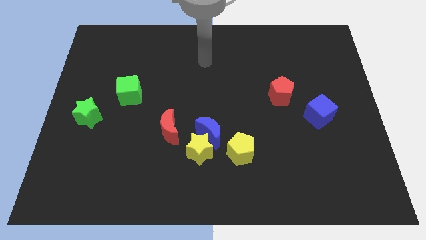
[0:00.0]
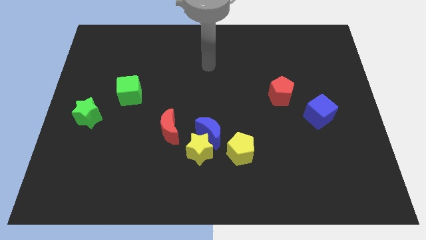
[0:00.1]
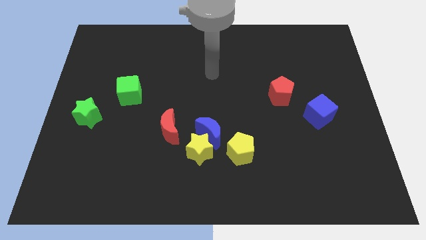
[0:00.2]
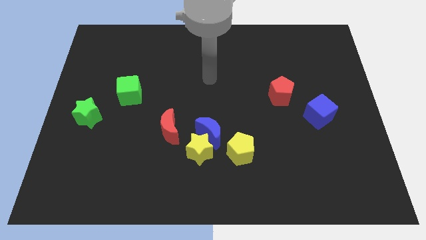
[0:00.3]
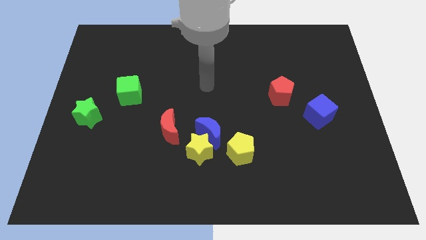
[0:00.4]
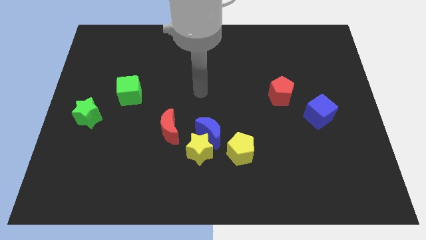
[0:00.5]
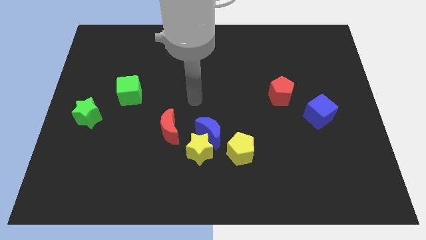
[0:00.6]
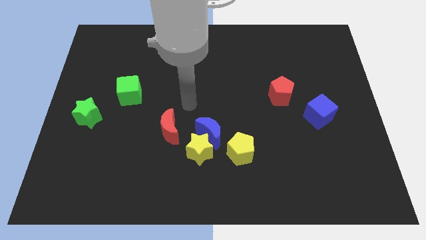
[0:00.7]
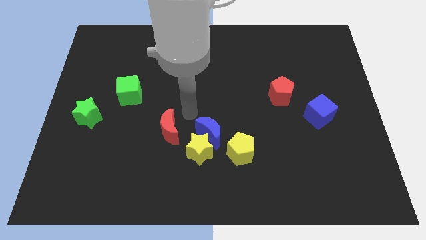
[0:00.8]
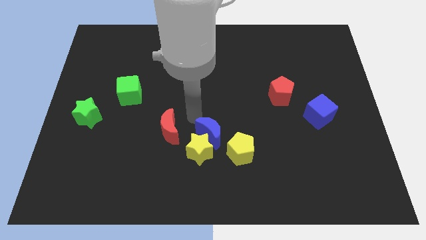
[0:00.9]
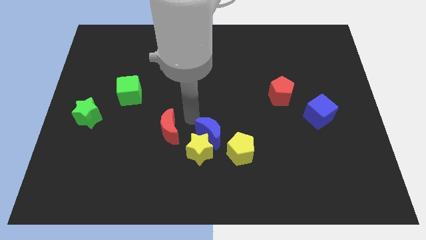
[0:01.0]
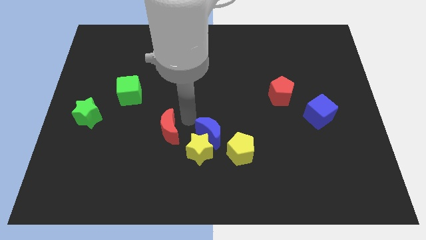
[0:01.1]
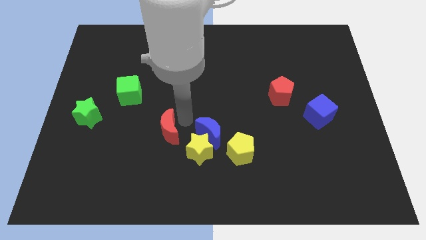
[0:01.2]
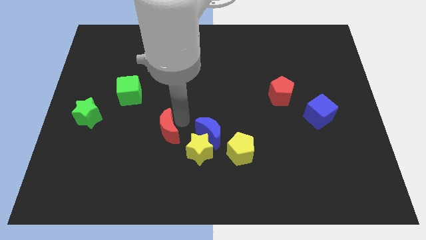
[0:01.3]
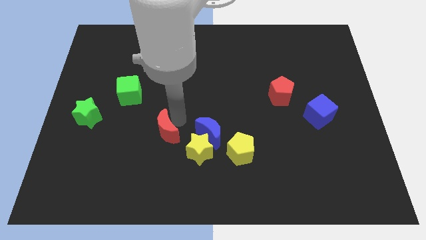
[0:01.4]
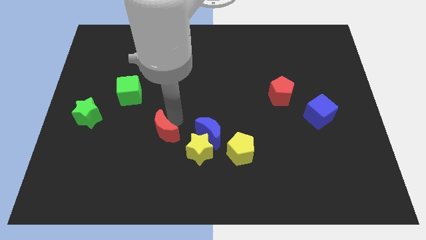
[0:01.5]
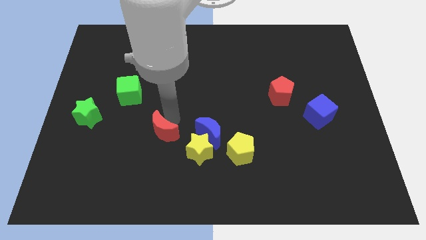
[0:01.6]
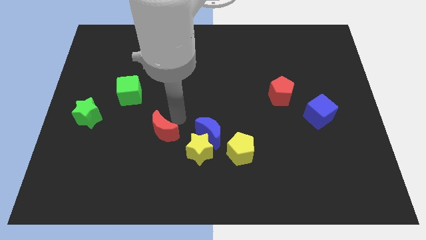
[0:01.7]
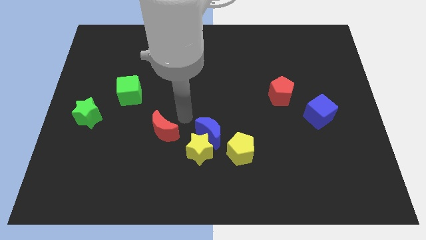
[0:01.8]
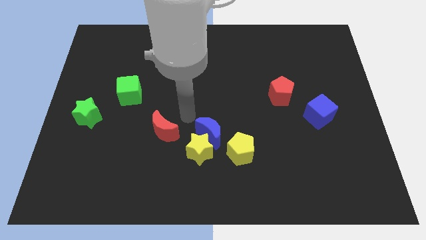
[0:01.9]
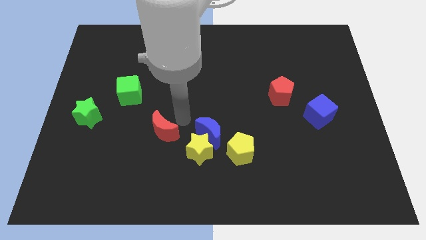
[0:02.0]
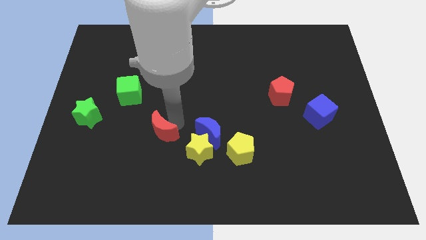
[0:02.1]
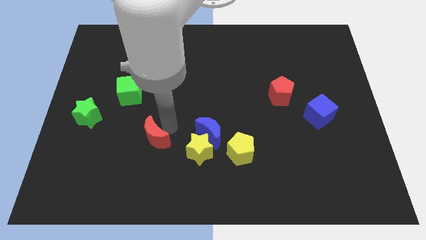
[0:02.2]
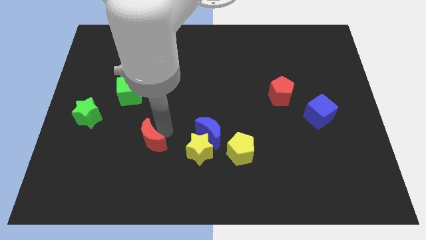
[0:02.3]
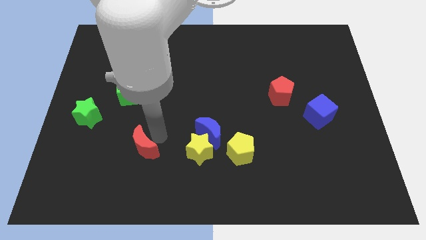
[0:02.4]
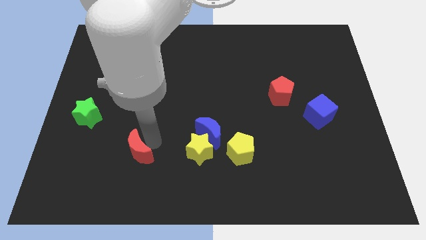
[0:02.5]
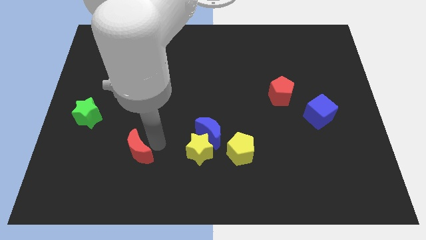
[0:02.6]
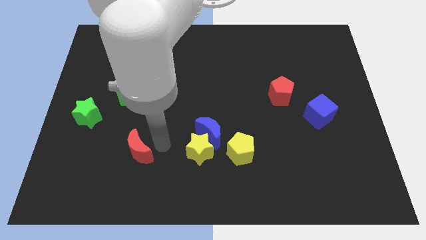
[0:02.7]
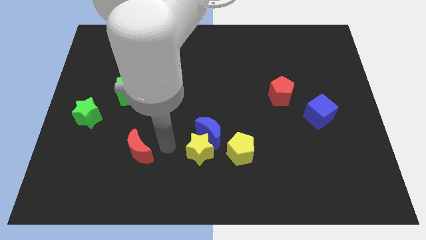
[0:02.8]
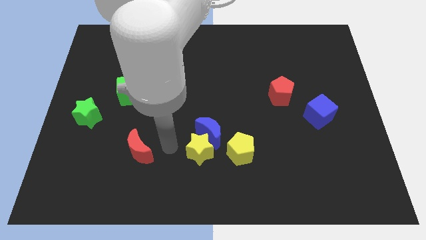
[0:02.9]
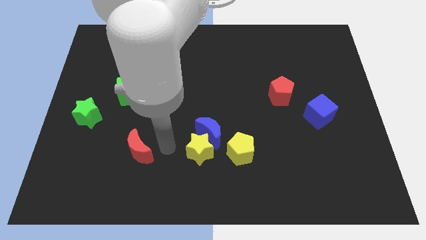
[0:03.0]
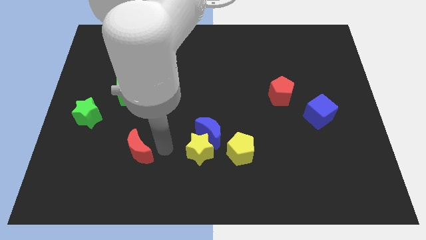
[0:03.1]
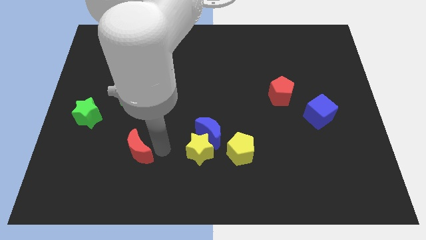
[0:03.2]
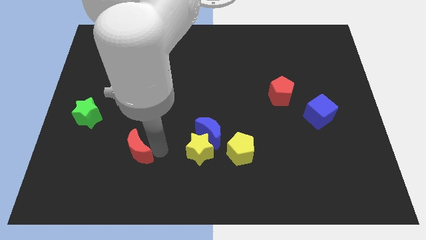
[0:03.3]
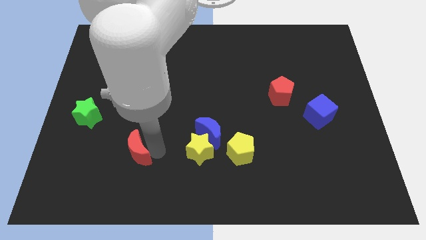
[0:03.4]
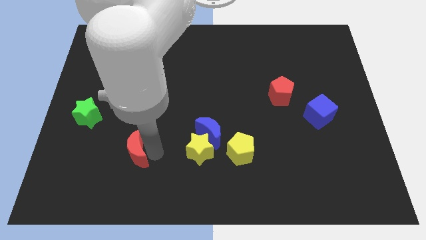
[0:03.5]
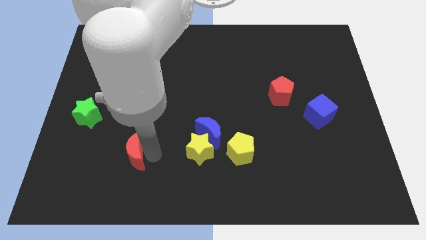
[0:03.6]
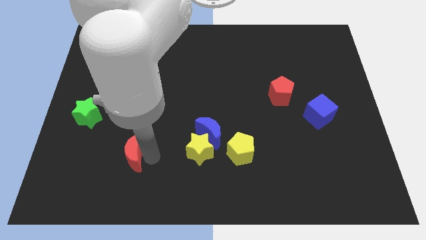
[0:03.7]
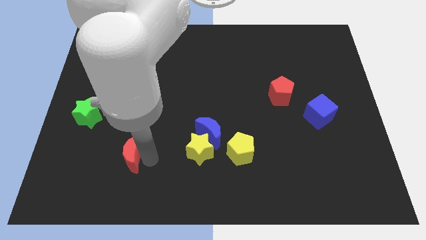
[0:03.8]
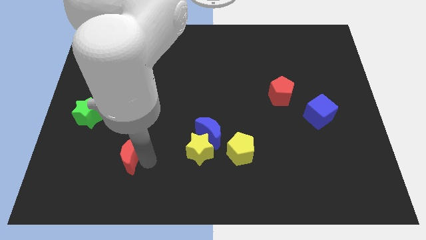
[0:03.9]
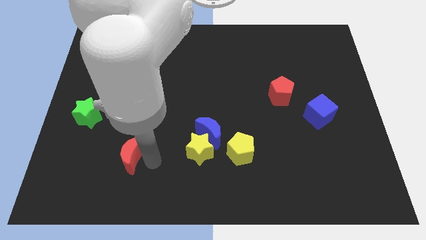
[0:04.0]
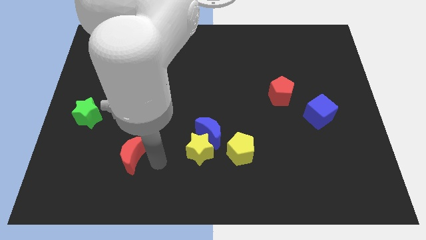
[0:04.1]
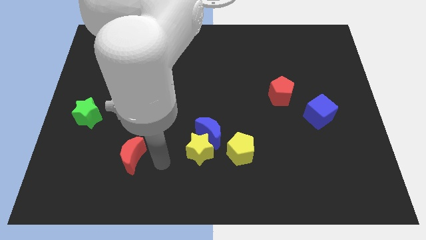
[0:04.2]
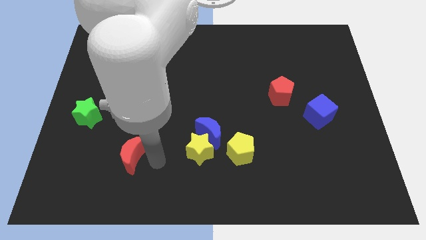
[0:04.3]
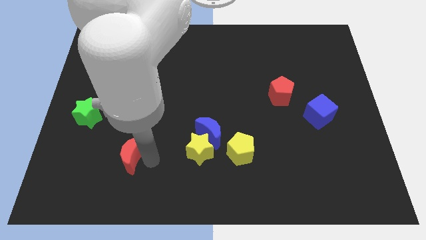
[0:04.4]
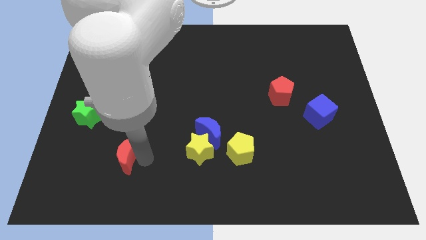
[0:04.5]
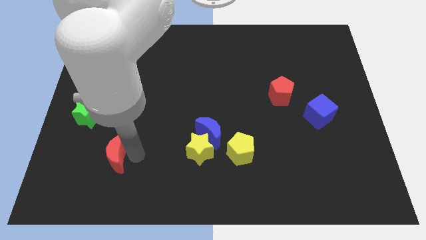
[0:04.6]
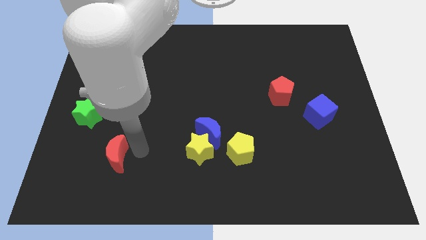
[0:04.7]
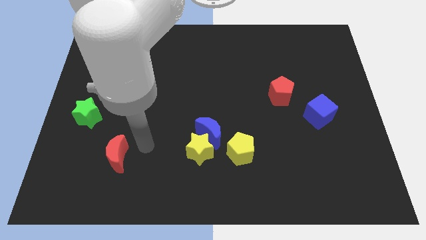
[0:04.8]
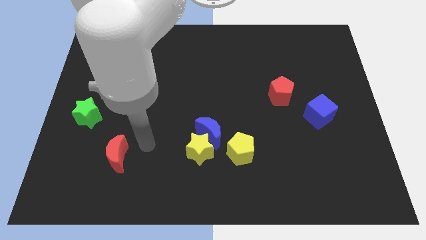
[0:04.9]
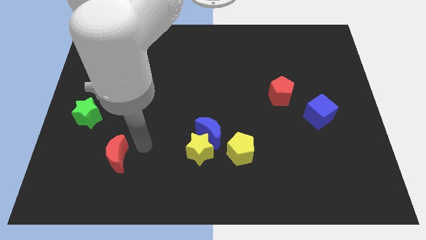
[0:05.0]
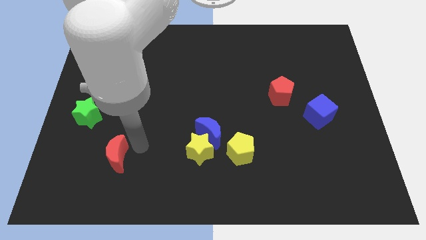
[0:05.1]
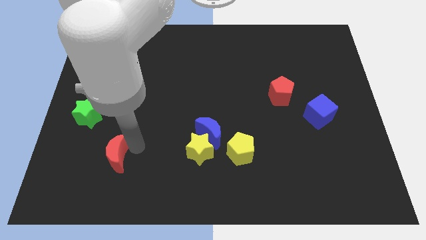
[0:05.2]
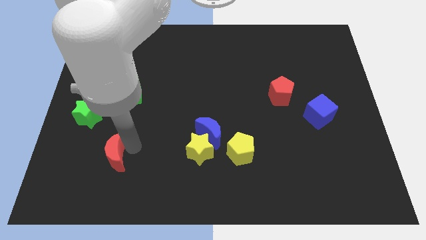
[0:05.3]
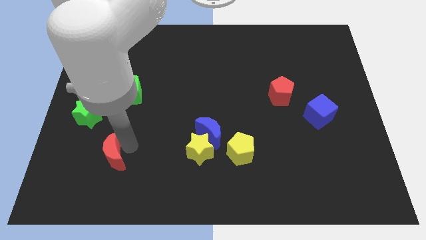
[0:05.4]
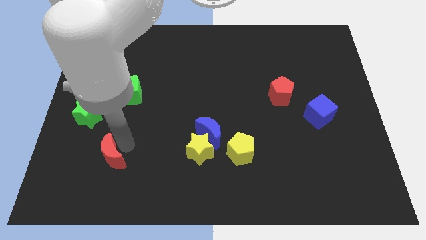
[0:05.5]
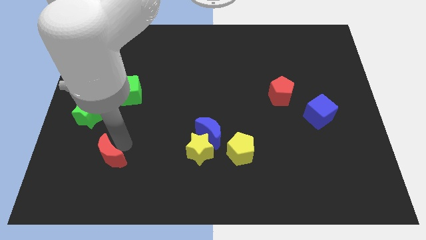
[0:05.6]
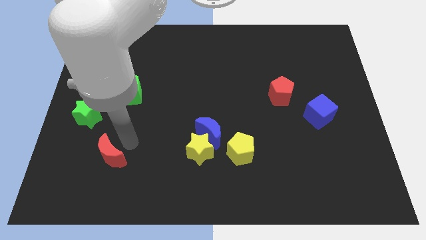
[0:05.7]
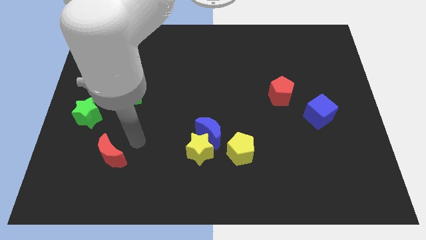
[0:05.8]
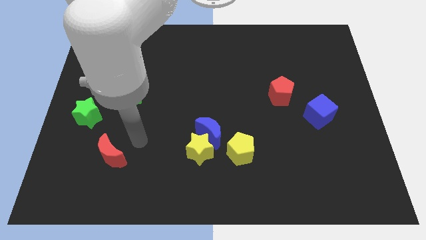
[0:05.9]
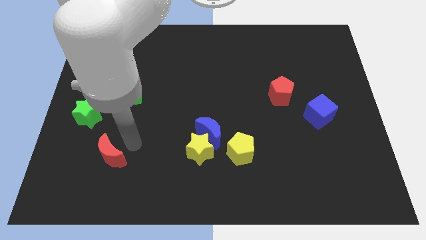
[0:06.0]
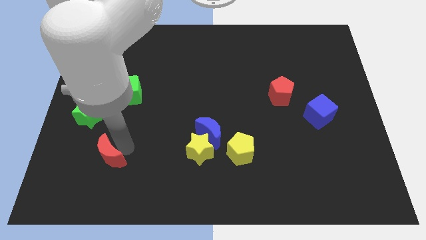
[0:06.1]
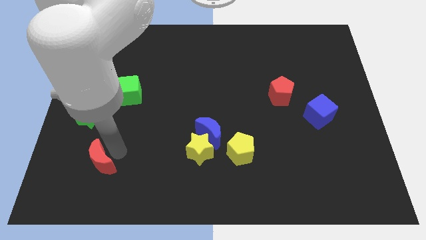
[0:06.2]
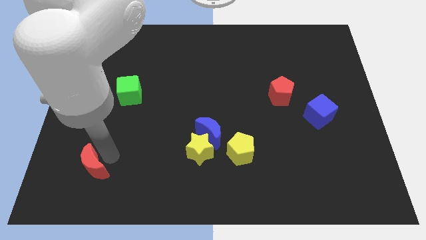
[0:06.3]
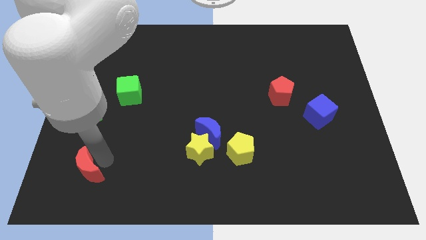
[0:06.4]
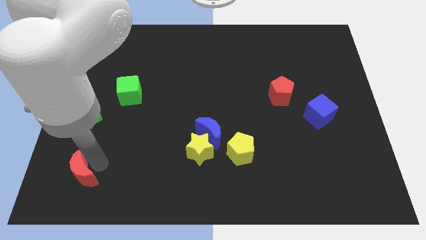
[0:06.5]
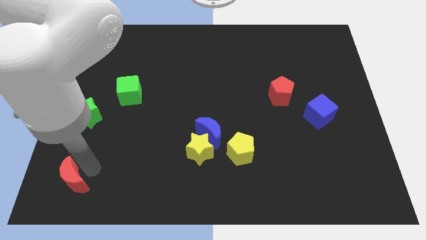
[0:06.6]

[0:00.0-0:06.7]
slide the red moon to the lower left corner
